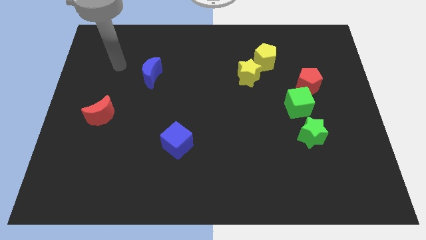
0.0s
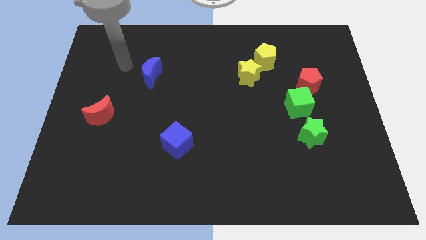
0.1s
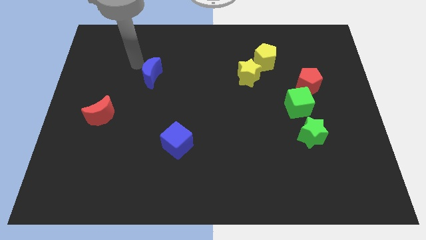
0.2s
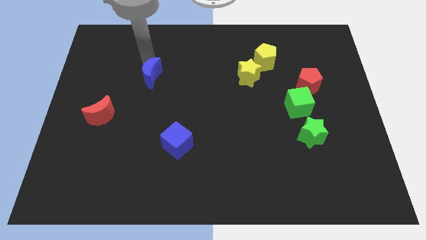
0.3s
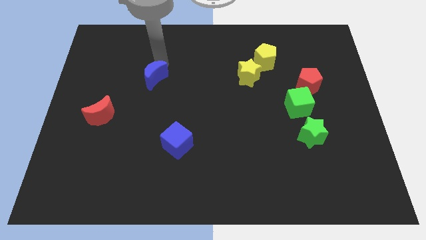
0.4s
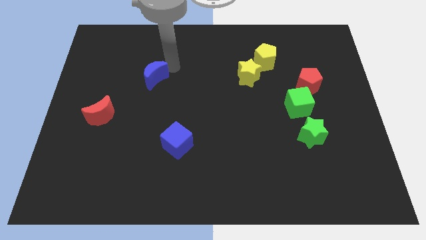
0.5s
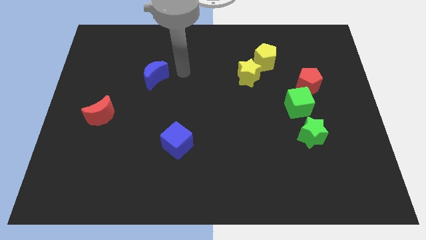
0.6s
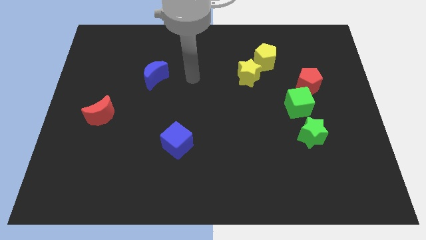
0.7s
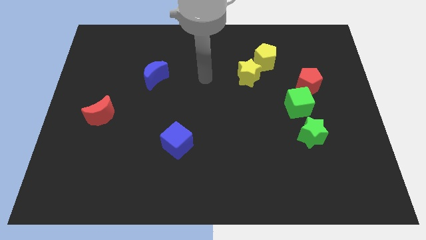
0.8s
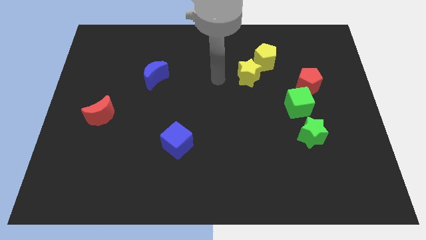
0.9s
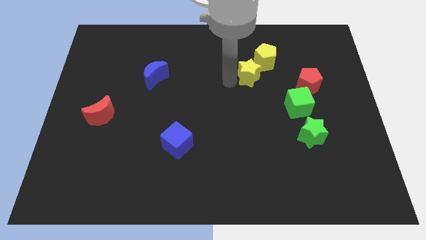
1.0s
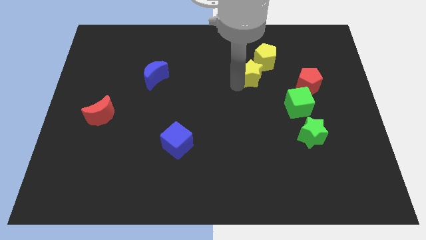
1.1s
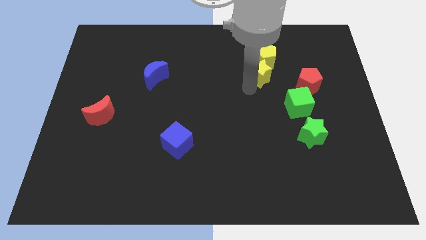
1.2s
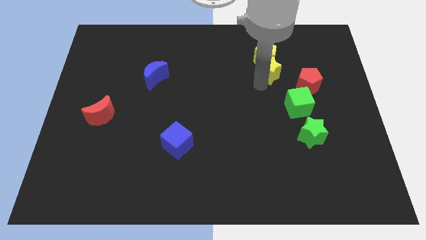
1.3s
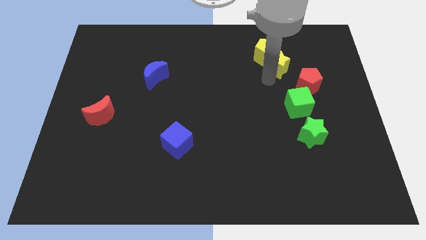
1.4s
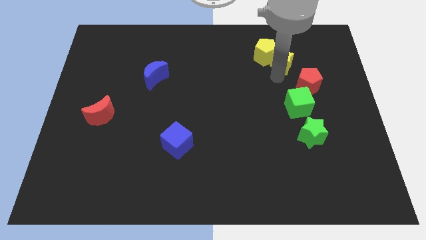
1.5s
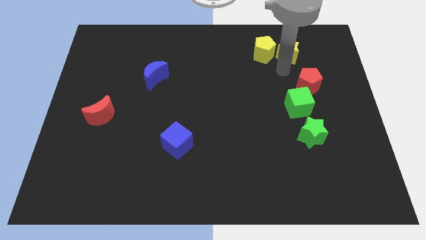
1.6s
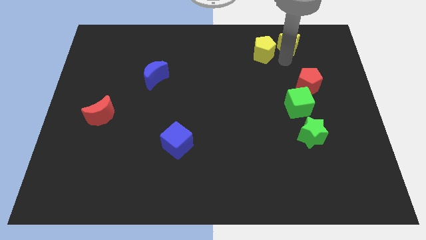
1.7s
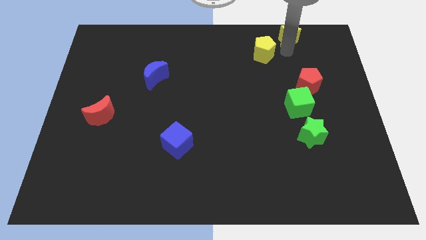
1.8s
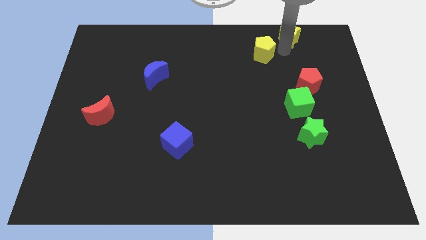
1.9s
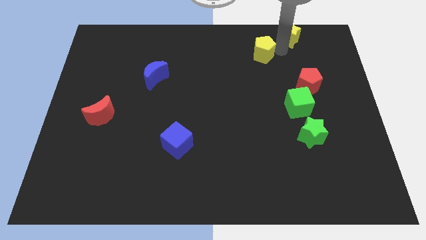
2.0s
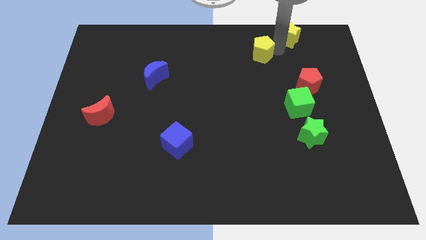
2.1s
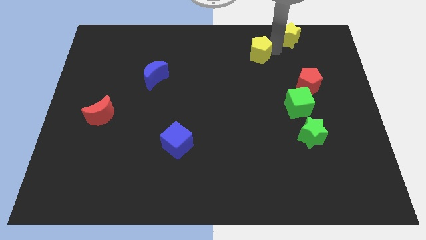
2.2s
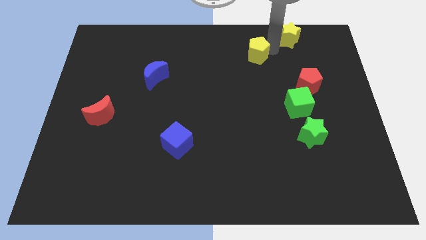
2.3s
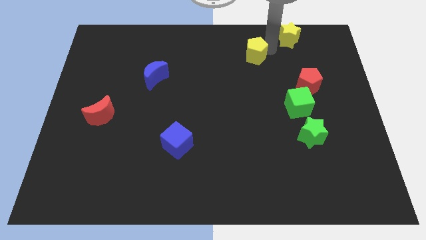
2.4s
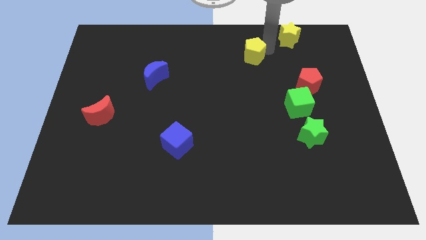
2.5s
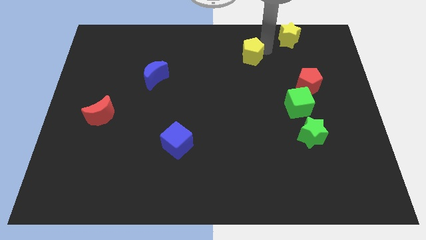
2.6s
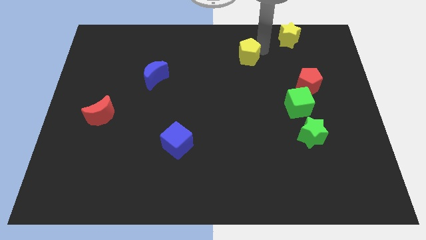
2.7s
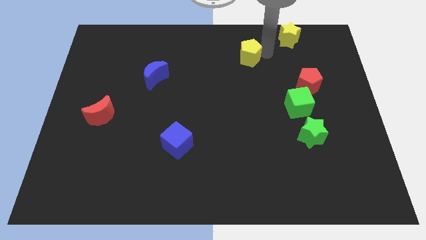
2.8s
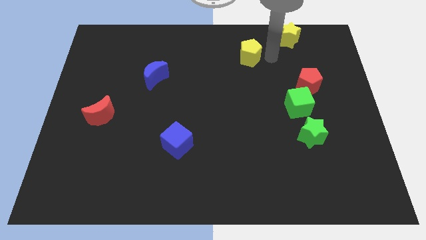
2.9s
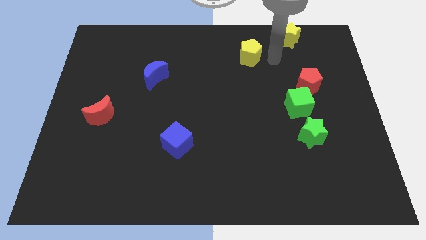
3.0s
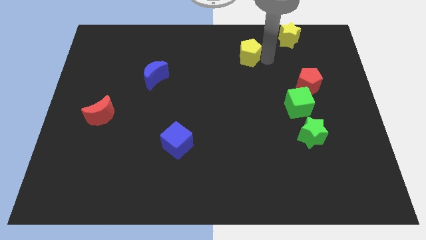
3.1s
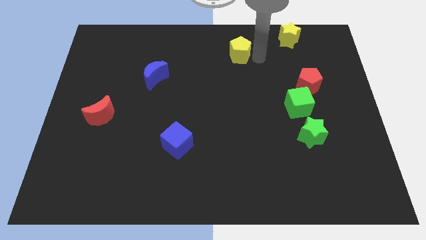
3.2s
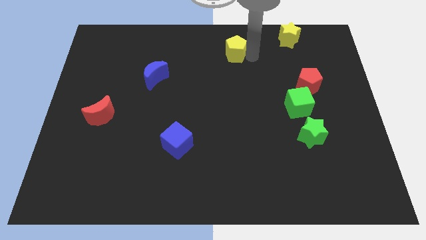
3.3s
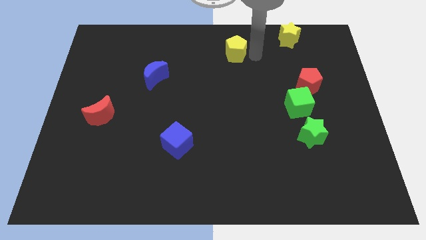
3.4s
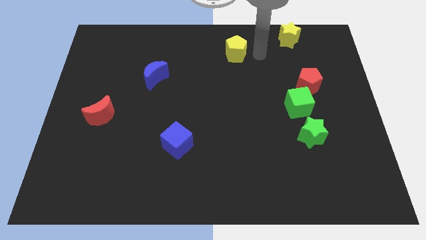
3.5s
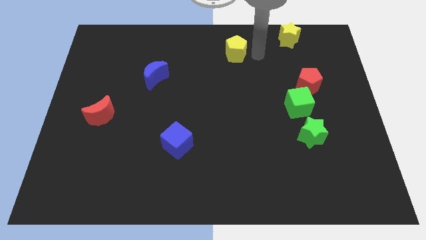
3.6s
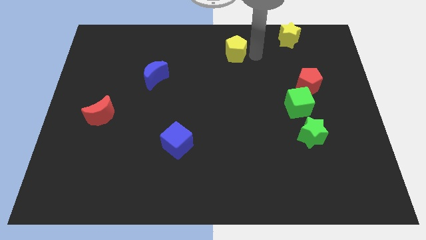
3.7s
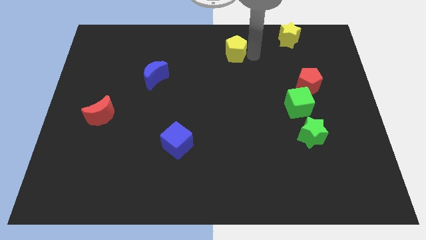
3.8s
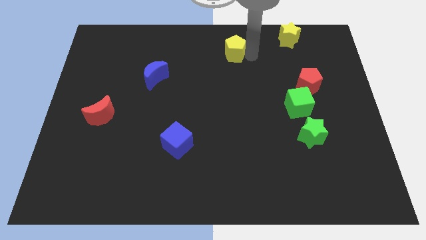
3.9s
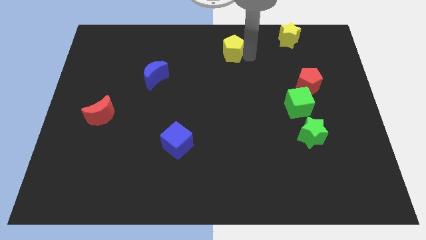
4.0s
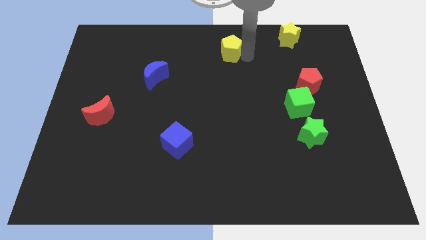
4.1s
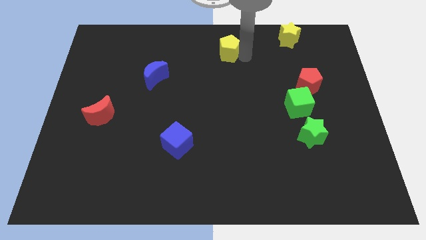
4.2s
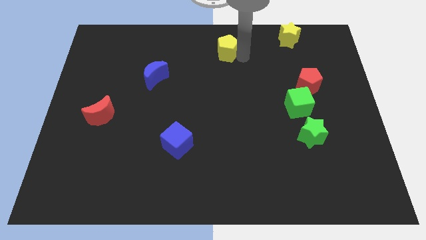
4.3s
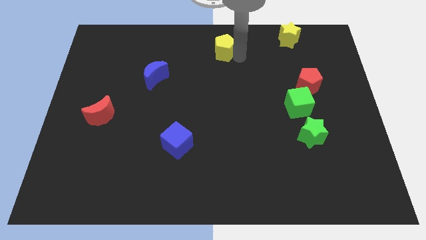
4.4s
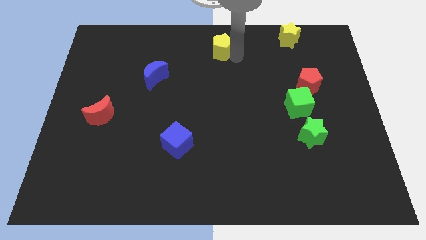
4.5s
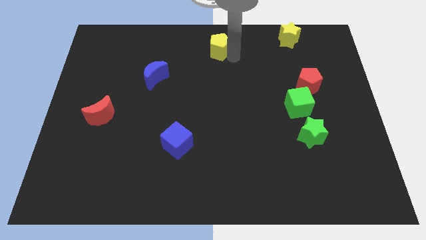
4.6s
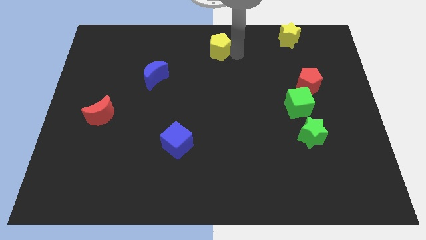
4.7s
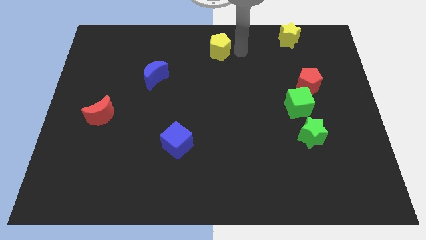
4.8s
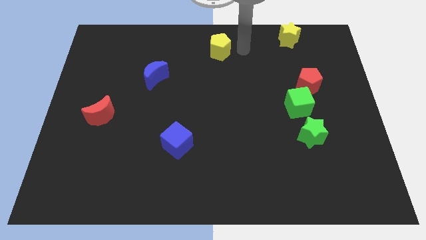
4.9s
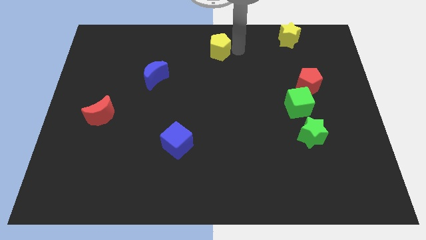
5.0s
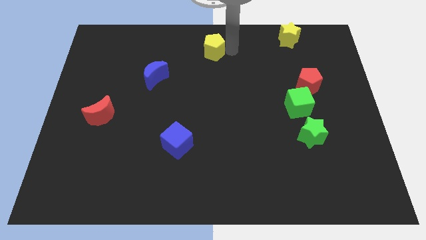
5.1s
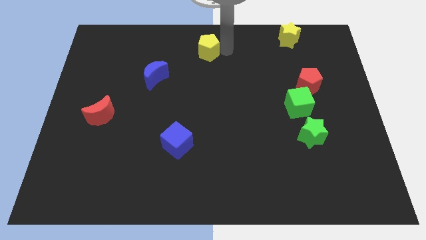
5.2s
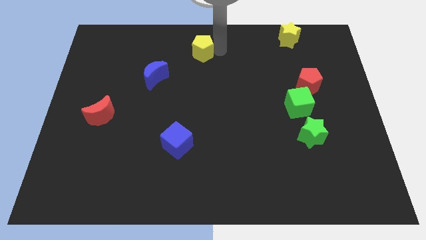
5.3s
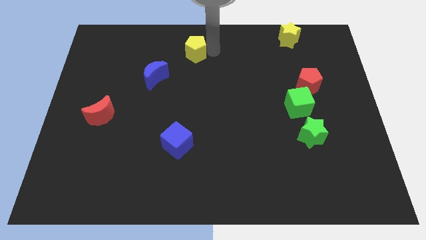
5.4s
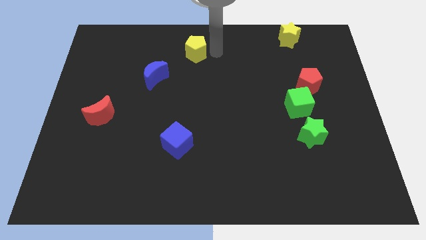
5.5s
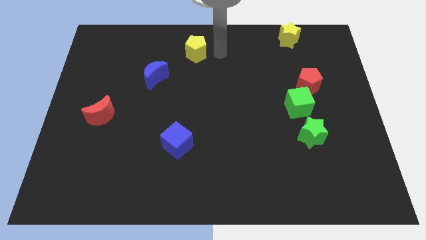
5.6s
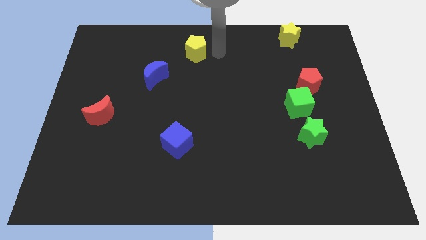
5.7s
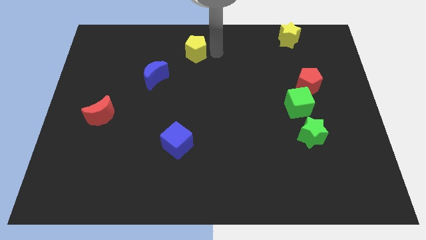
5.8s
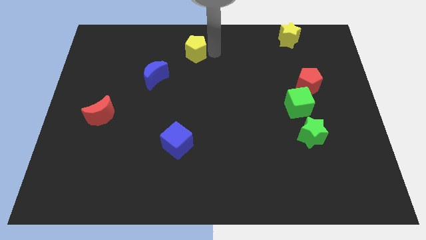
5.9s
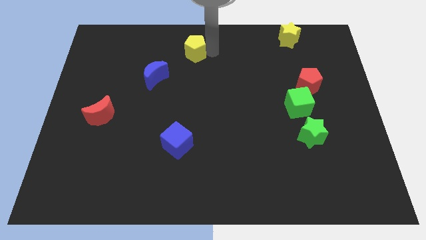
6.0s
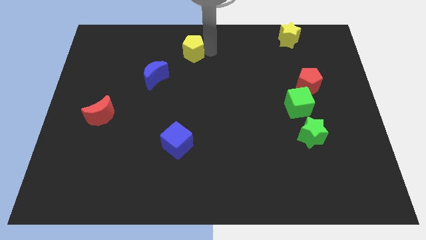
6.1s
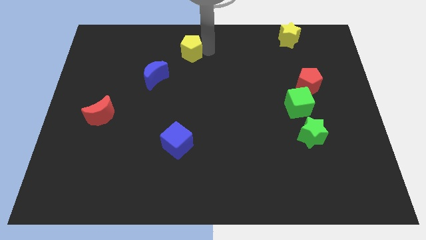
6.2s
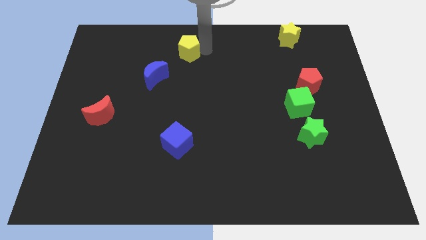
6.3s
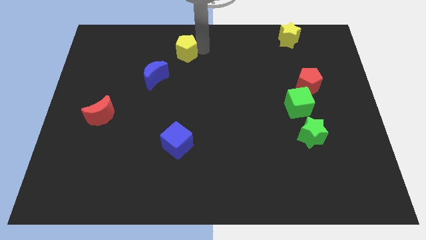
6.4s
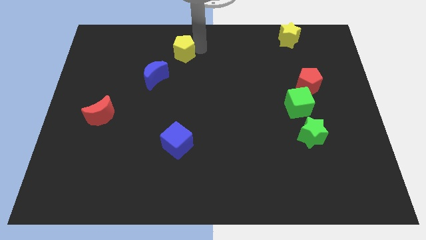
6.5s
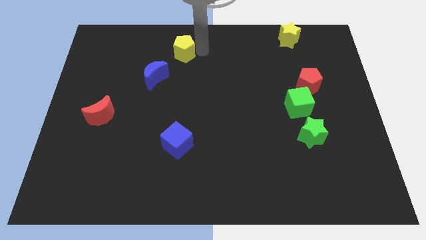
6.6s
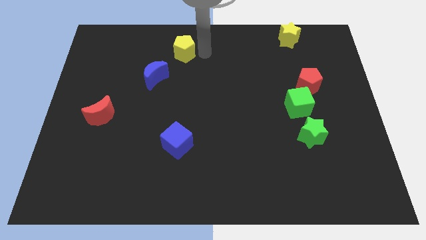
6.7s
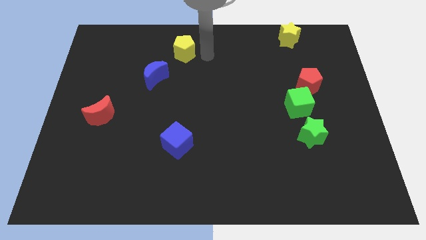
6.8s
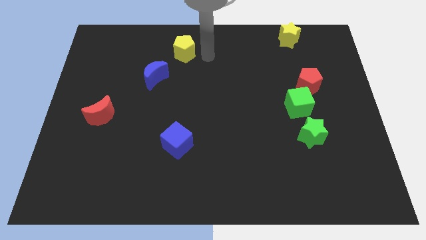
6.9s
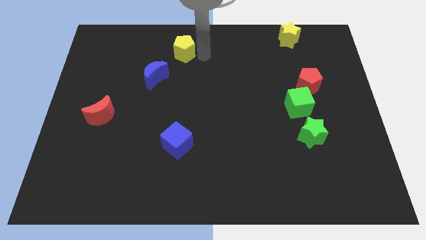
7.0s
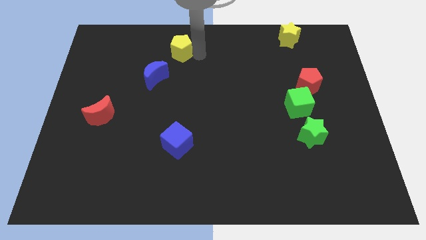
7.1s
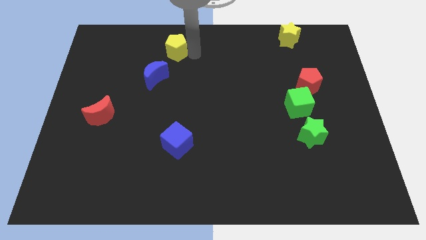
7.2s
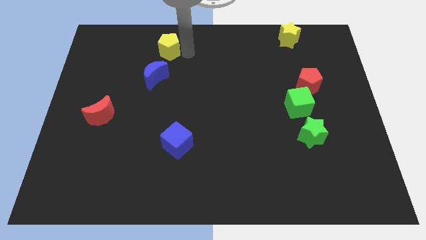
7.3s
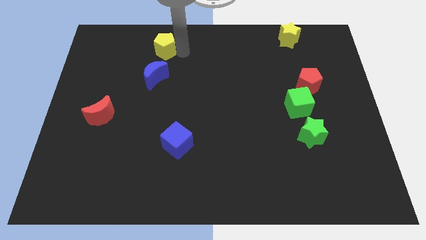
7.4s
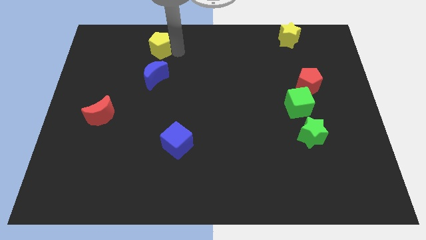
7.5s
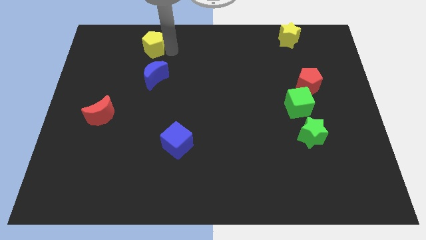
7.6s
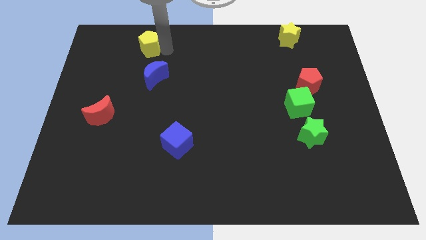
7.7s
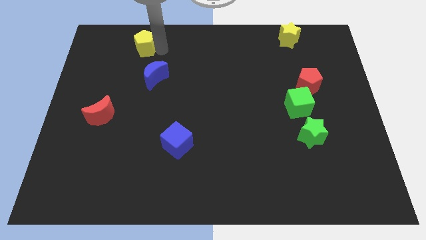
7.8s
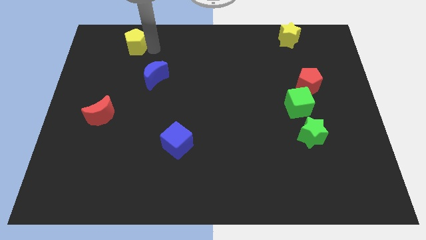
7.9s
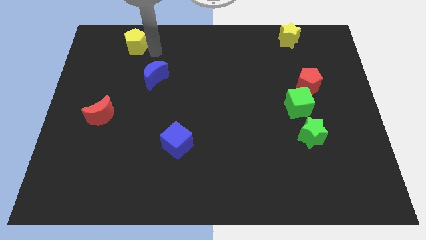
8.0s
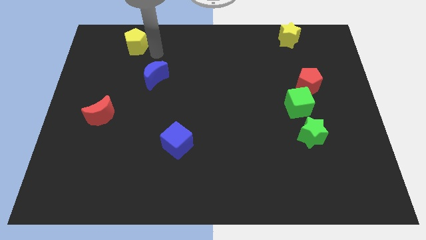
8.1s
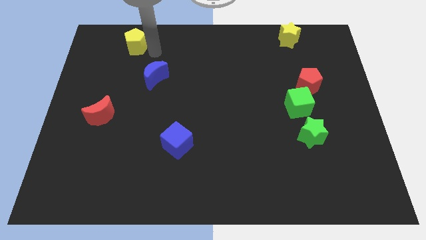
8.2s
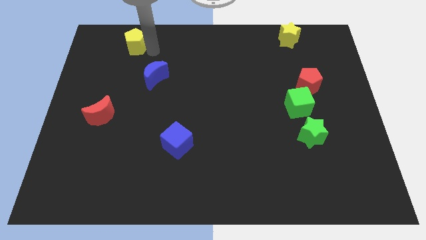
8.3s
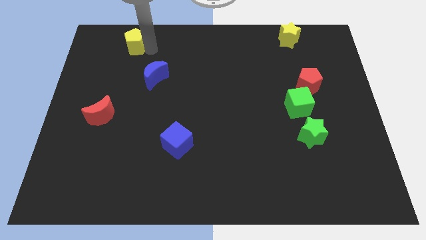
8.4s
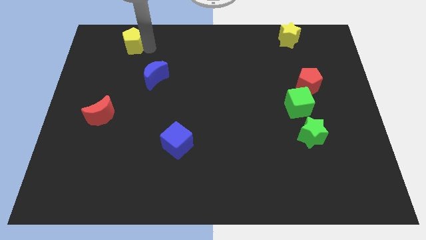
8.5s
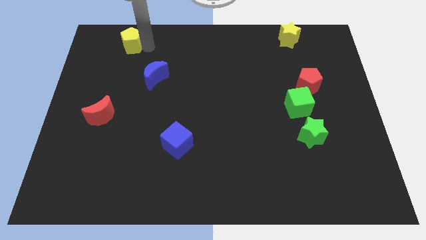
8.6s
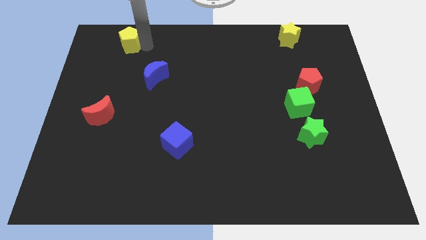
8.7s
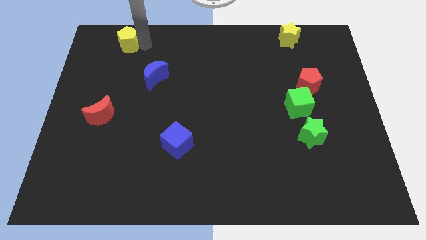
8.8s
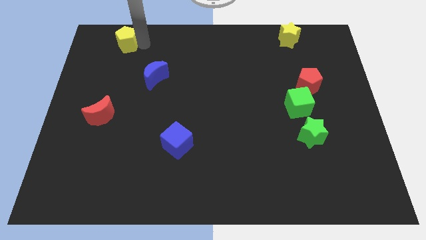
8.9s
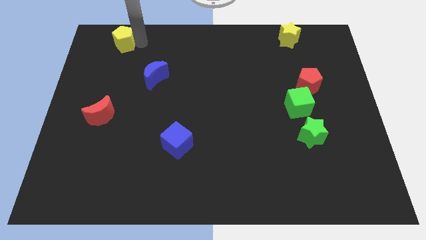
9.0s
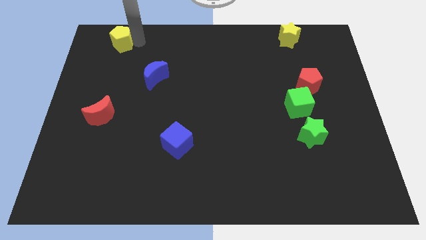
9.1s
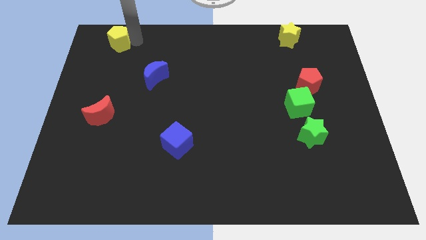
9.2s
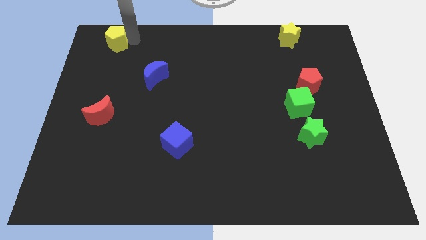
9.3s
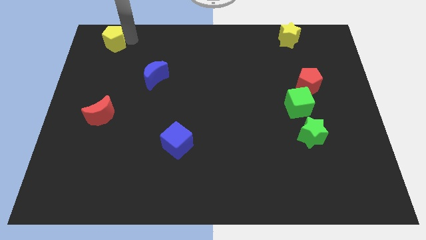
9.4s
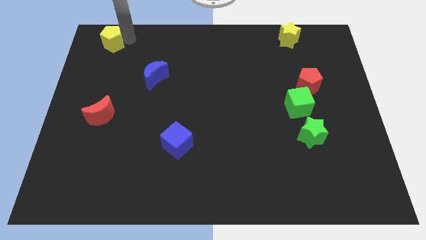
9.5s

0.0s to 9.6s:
push the yellow pentagon to the top left of the board
